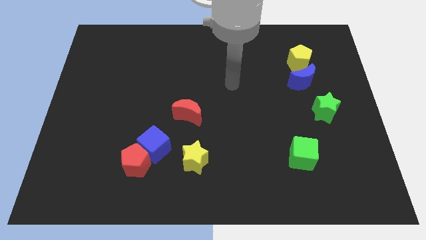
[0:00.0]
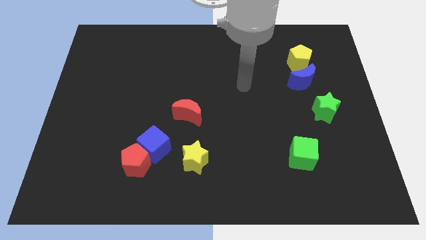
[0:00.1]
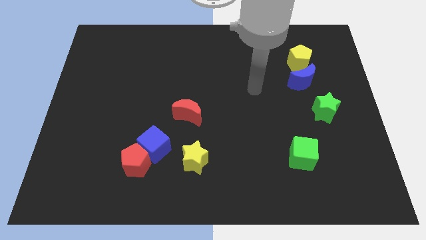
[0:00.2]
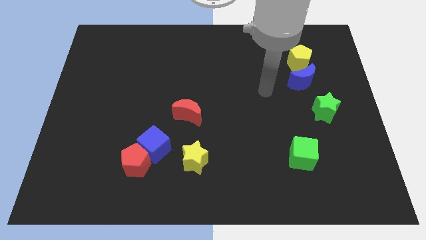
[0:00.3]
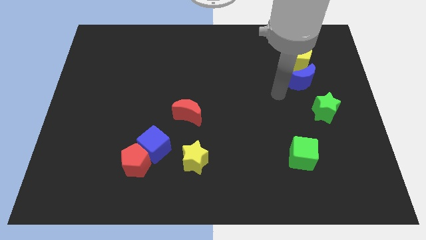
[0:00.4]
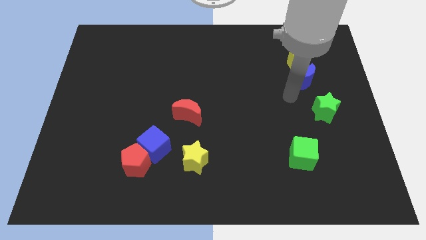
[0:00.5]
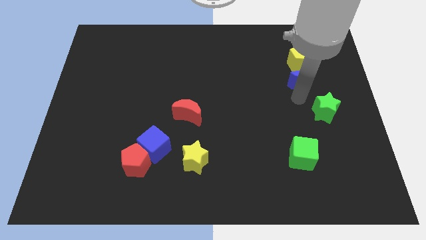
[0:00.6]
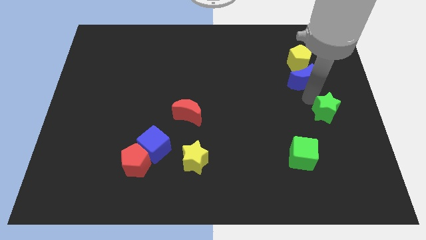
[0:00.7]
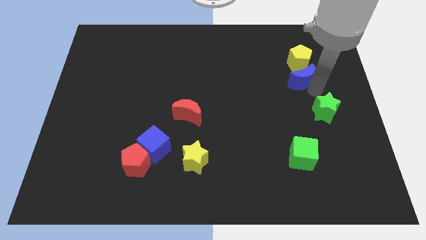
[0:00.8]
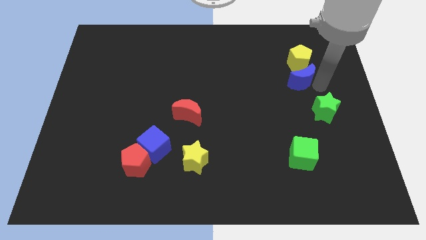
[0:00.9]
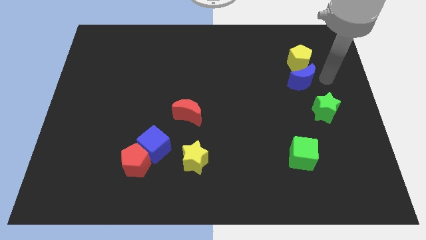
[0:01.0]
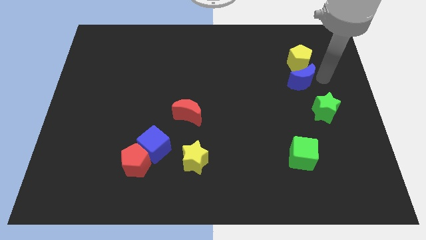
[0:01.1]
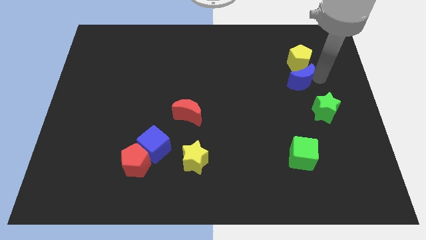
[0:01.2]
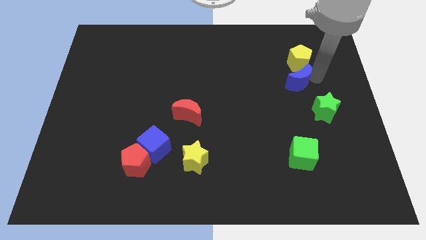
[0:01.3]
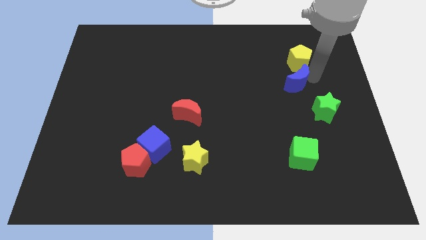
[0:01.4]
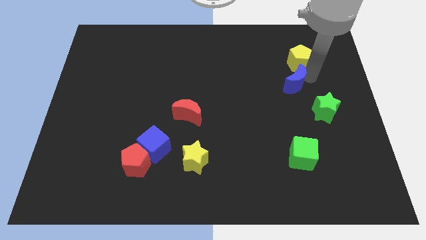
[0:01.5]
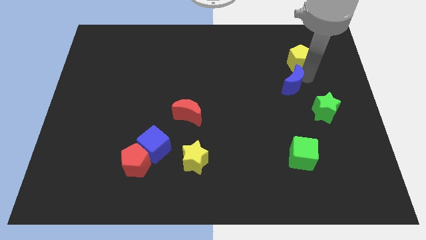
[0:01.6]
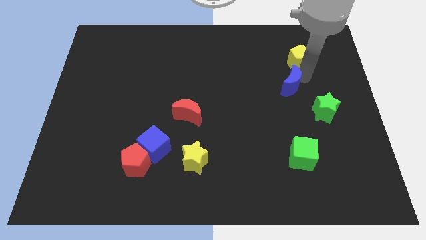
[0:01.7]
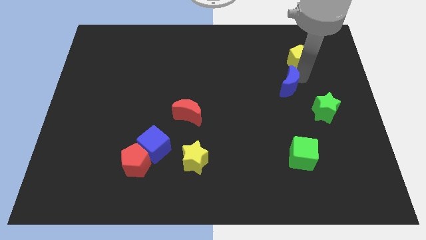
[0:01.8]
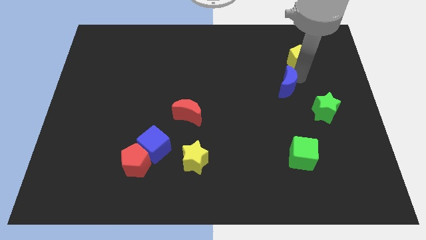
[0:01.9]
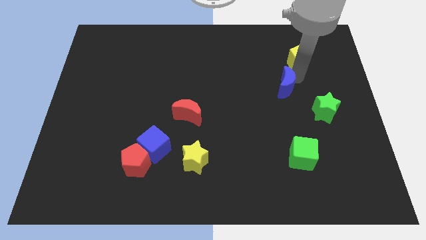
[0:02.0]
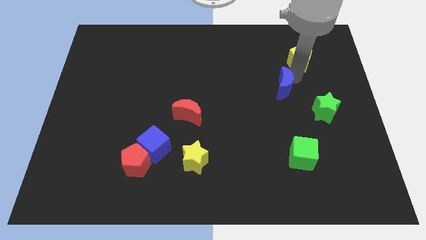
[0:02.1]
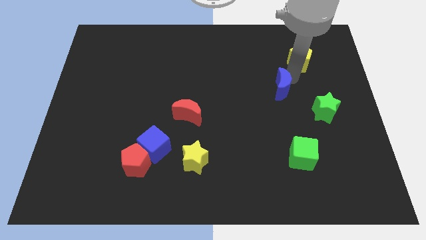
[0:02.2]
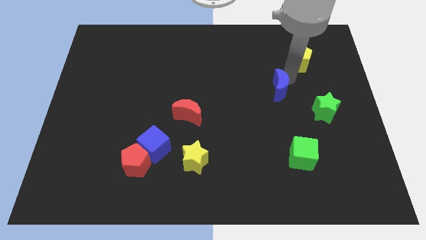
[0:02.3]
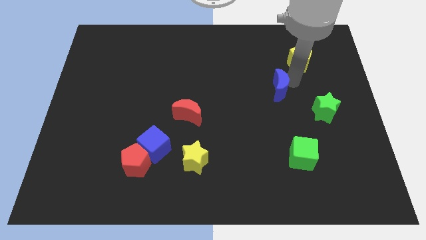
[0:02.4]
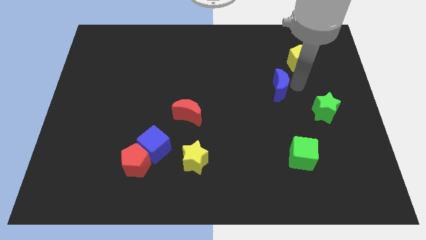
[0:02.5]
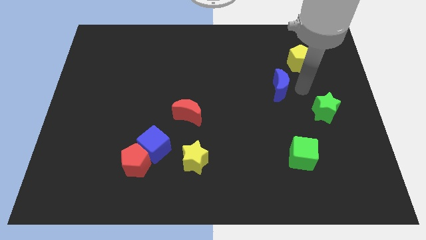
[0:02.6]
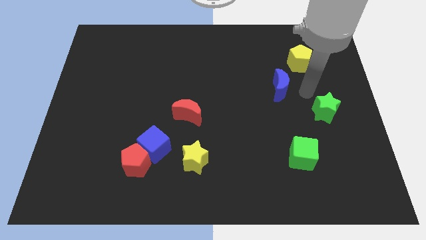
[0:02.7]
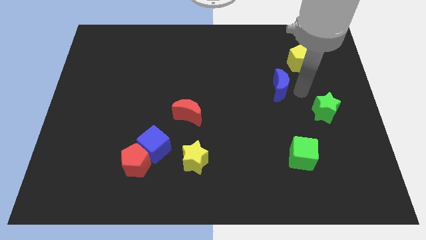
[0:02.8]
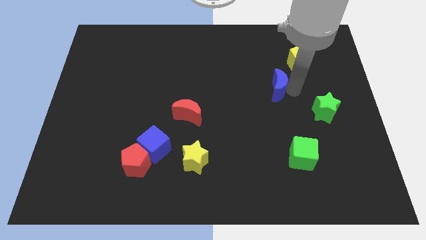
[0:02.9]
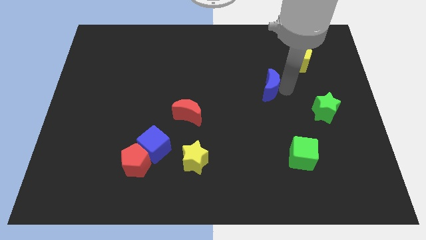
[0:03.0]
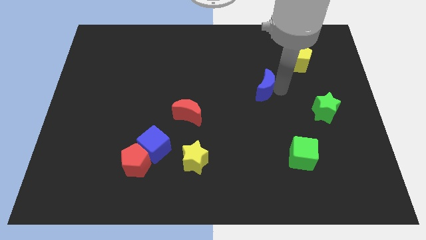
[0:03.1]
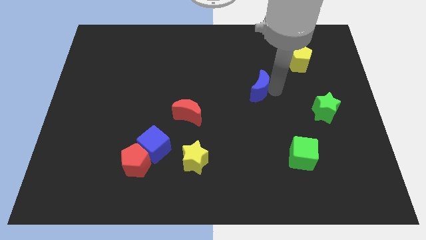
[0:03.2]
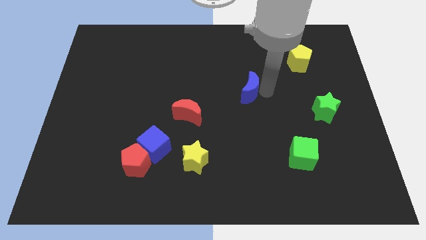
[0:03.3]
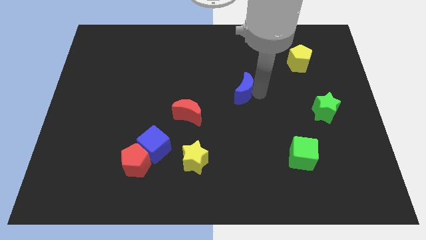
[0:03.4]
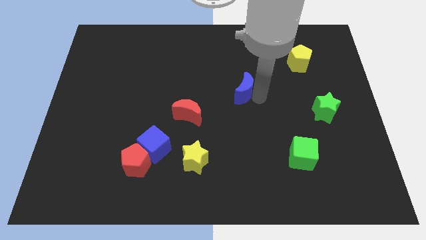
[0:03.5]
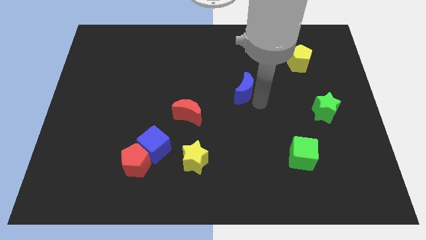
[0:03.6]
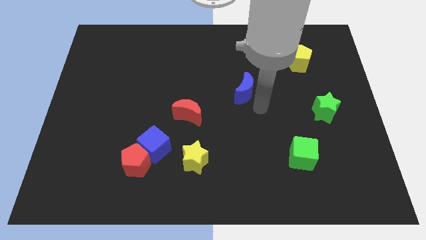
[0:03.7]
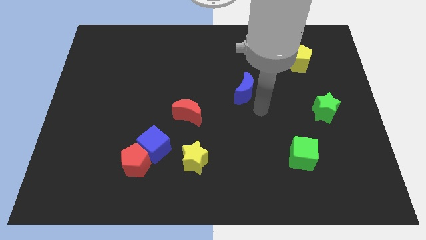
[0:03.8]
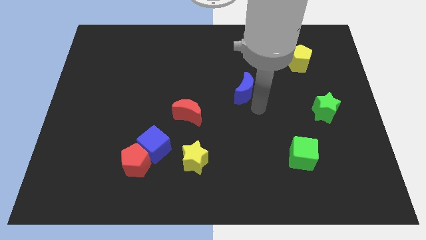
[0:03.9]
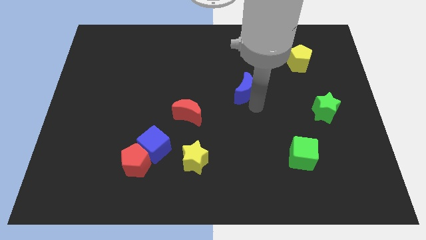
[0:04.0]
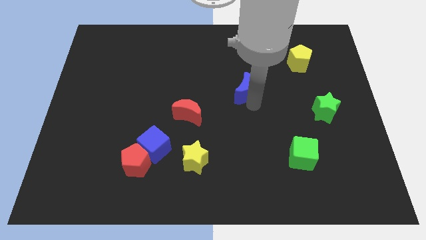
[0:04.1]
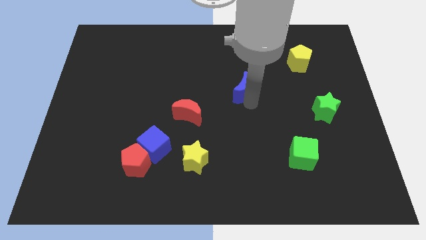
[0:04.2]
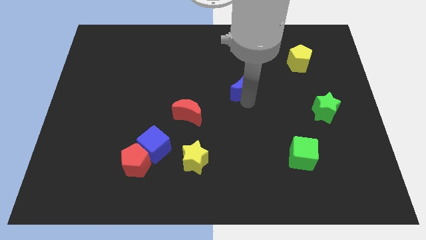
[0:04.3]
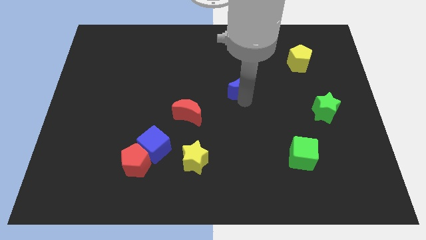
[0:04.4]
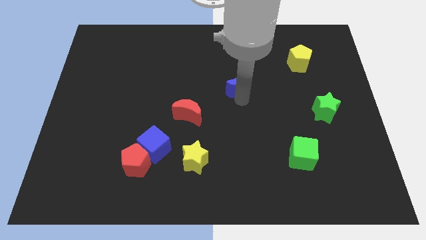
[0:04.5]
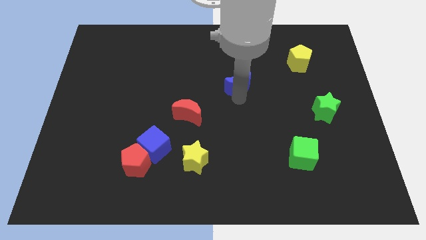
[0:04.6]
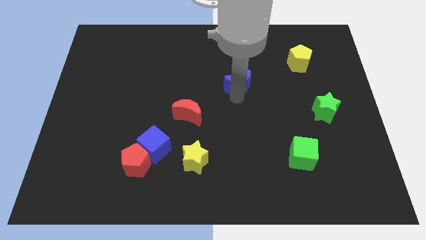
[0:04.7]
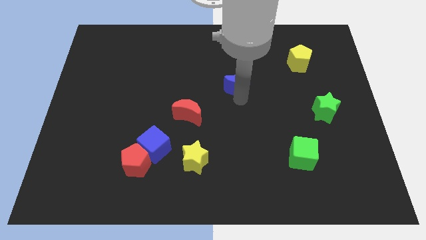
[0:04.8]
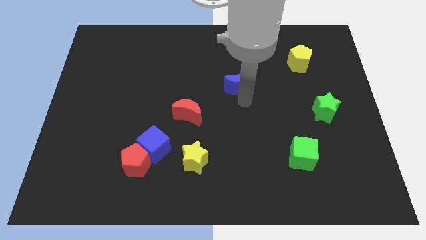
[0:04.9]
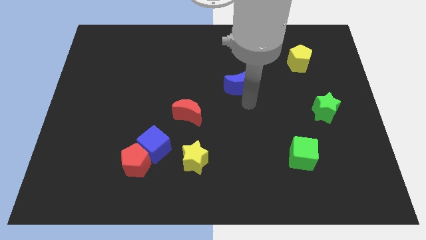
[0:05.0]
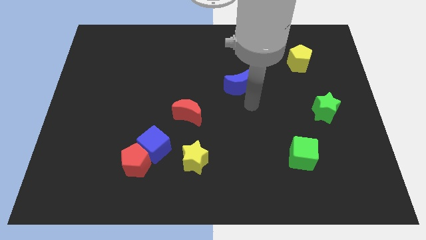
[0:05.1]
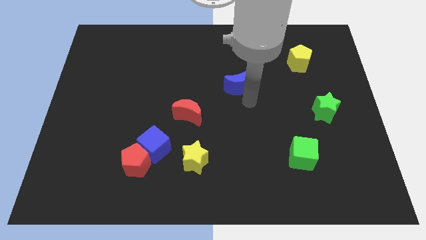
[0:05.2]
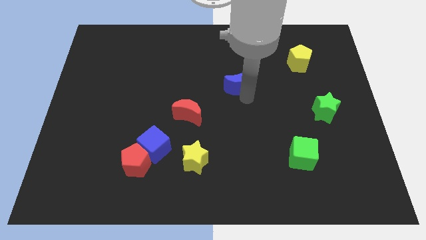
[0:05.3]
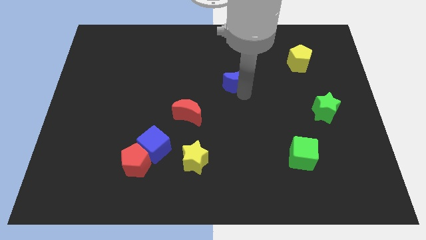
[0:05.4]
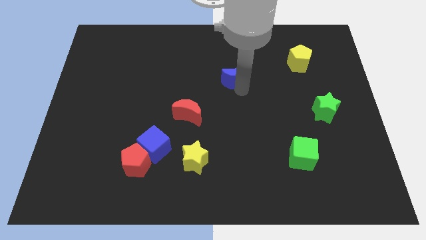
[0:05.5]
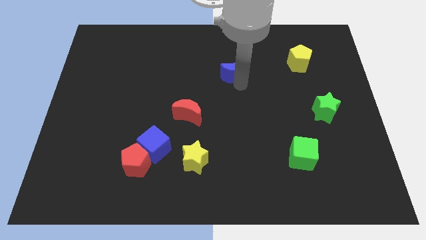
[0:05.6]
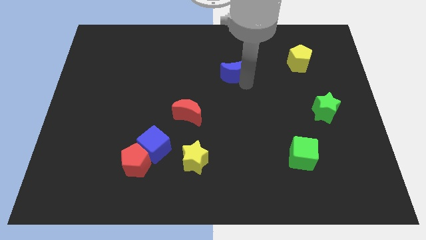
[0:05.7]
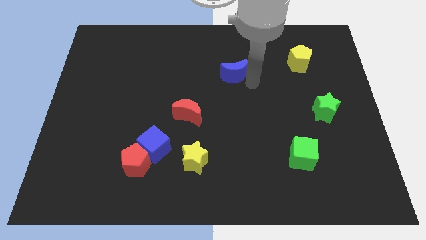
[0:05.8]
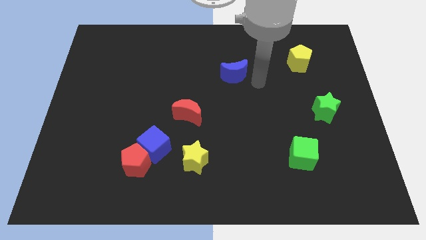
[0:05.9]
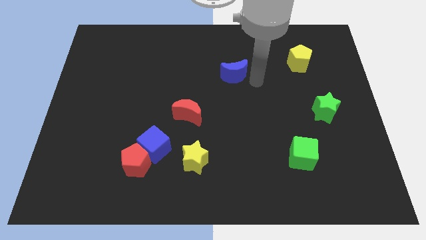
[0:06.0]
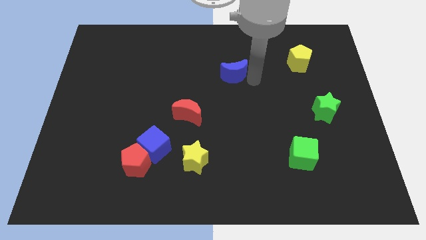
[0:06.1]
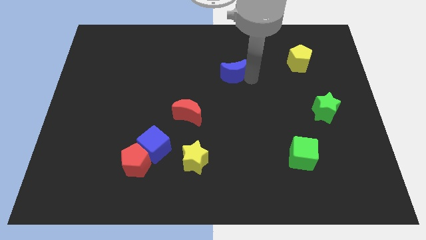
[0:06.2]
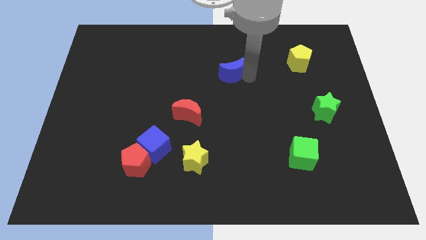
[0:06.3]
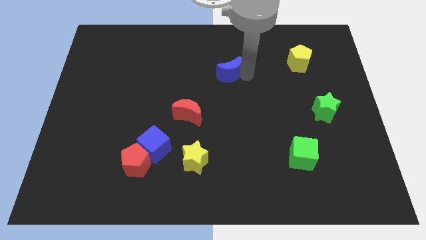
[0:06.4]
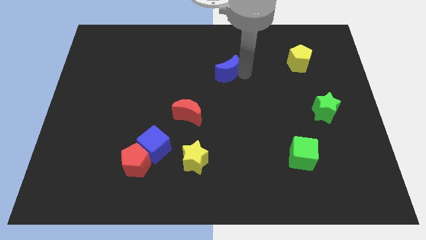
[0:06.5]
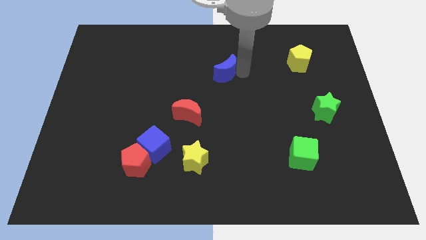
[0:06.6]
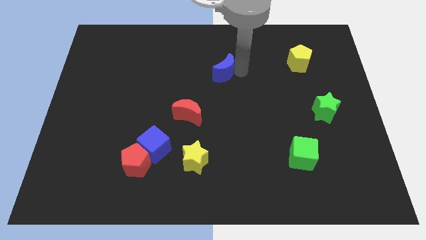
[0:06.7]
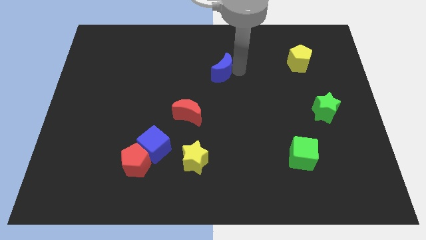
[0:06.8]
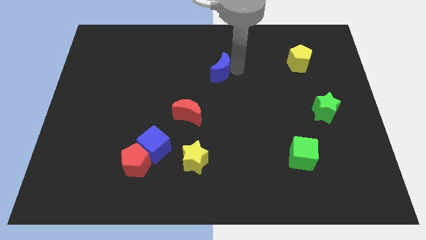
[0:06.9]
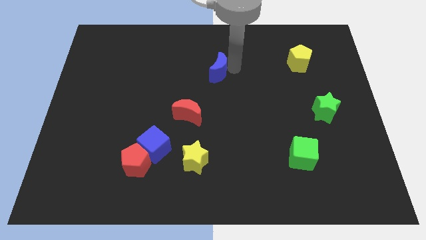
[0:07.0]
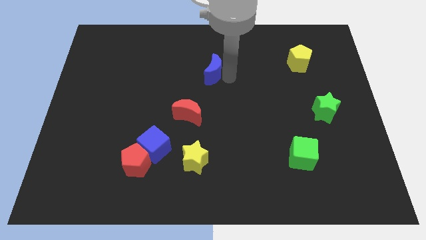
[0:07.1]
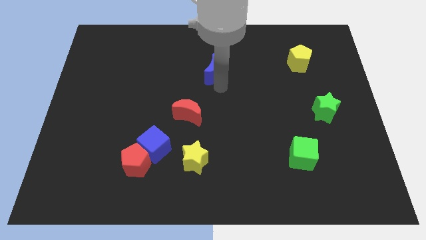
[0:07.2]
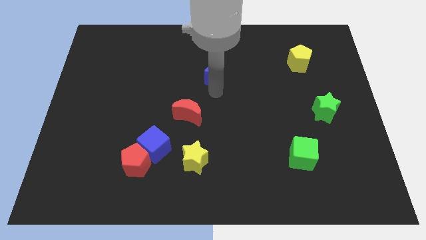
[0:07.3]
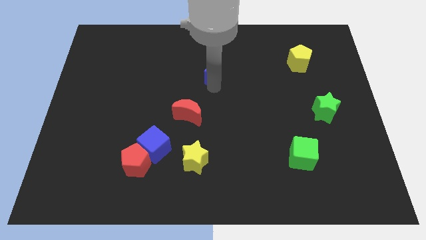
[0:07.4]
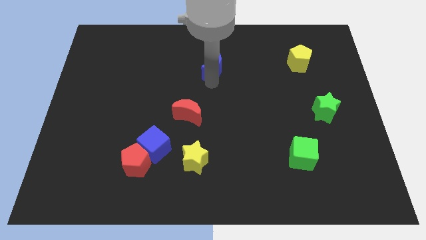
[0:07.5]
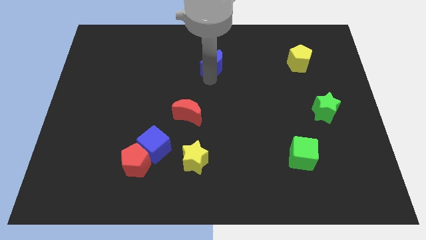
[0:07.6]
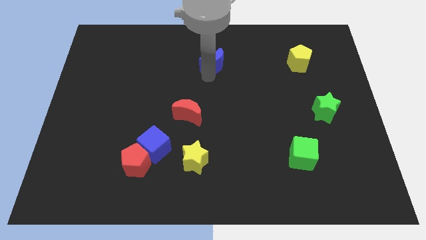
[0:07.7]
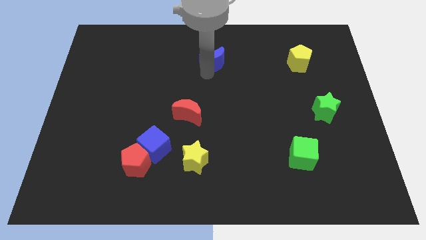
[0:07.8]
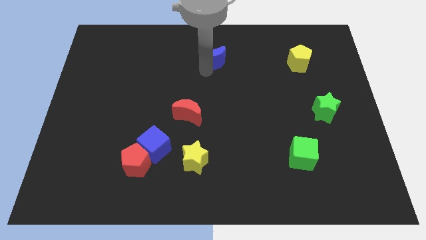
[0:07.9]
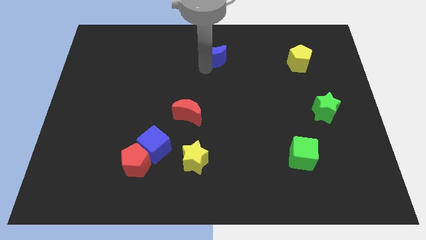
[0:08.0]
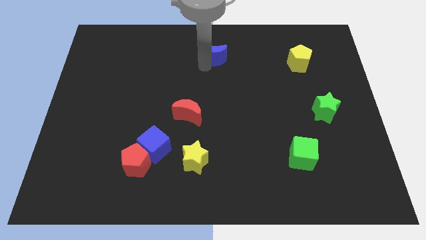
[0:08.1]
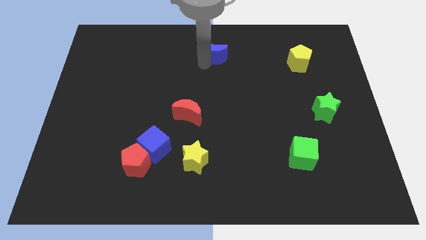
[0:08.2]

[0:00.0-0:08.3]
push the blue moon to the towards your base
